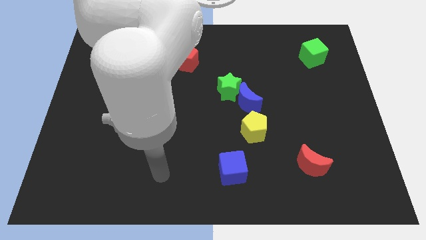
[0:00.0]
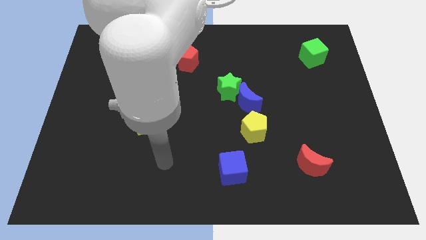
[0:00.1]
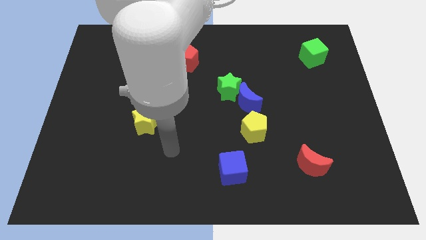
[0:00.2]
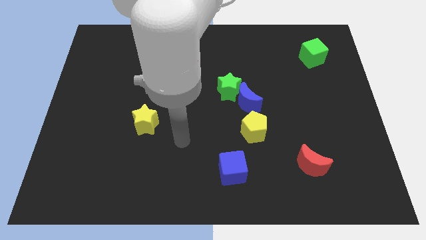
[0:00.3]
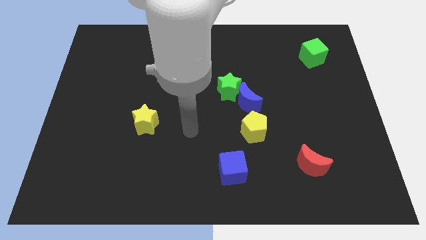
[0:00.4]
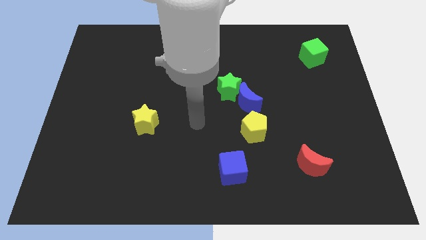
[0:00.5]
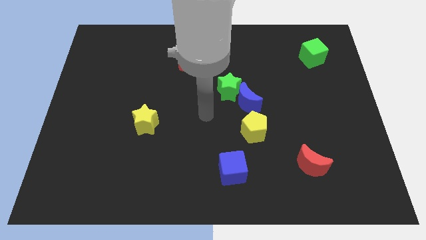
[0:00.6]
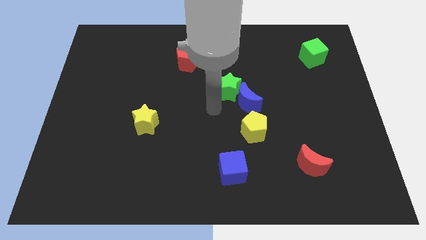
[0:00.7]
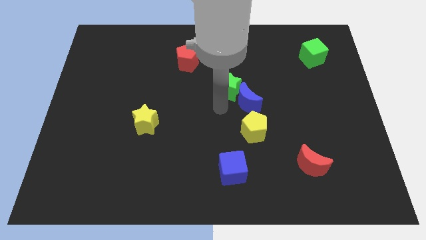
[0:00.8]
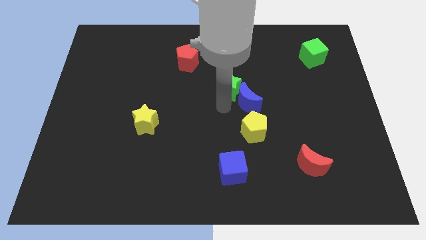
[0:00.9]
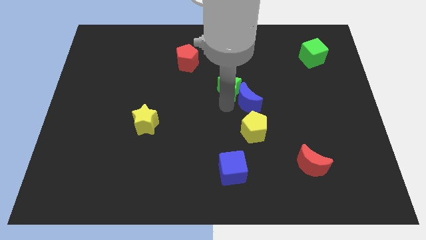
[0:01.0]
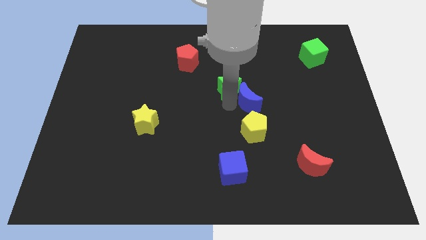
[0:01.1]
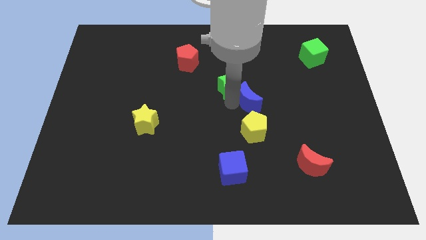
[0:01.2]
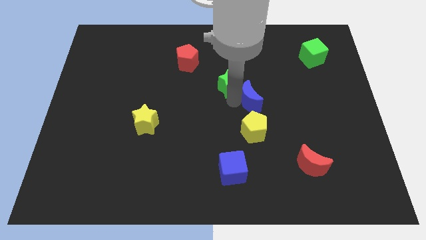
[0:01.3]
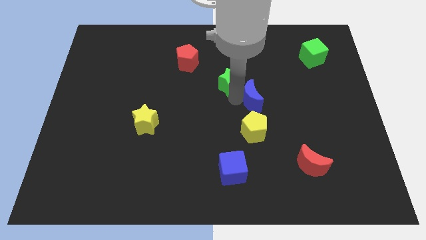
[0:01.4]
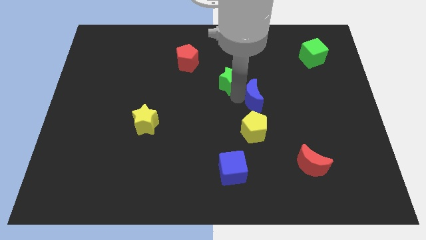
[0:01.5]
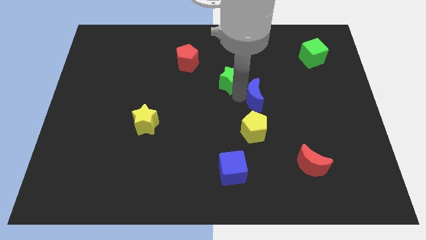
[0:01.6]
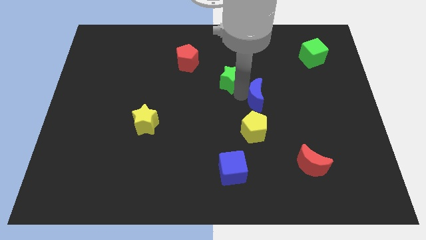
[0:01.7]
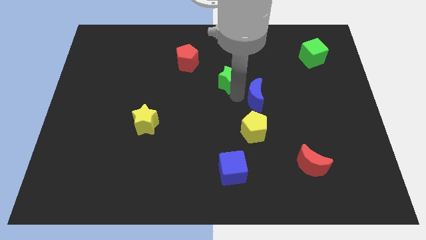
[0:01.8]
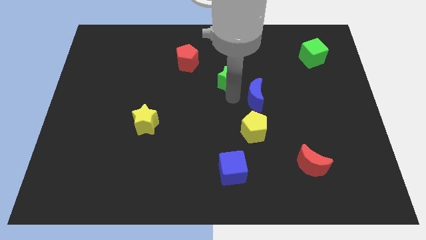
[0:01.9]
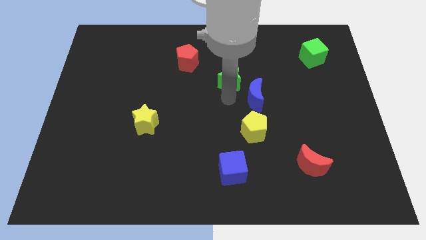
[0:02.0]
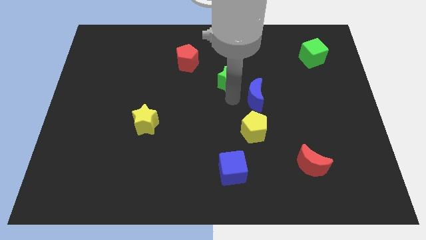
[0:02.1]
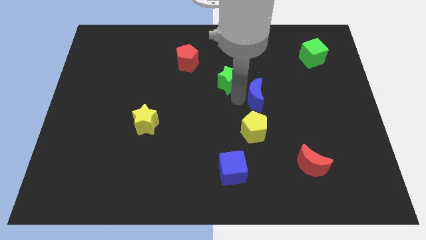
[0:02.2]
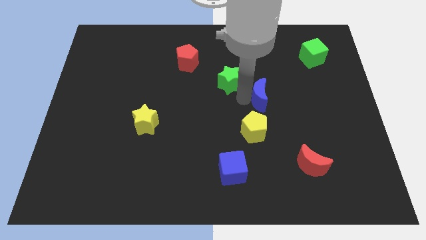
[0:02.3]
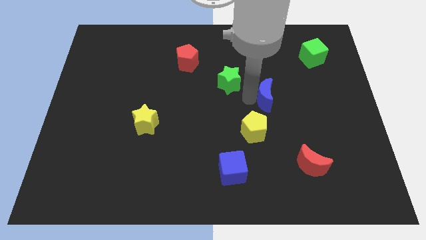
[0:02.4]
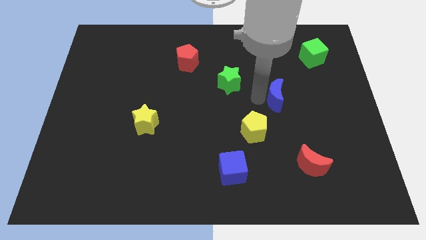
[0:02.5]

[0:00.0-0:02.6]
slide the blue moon right slightly

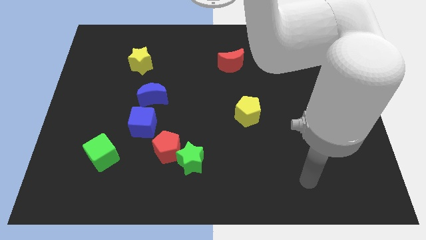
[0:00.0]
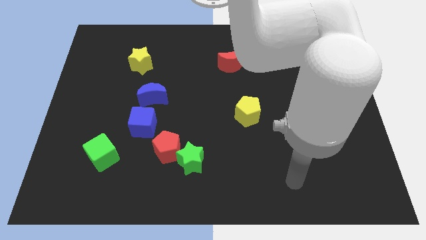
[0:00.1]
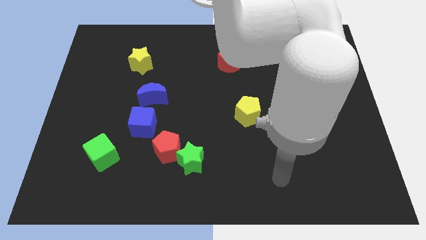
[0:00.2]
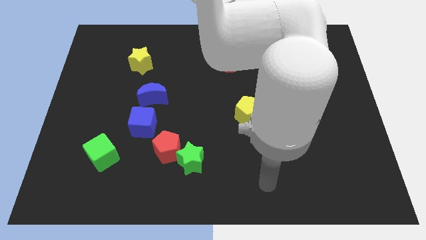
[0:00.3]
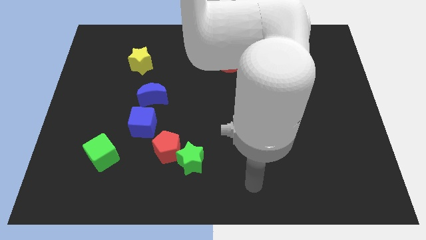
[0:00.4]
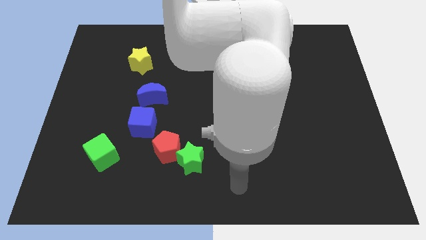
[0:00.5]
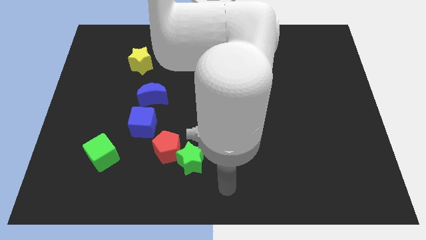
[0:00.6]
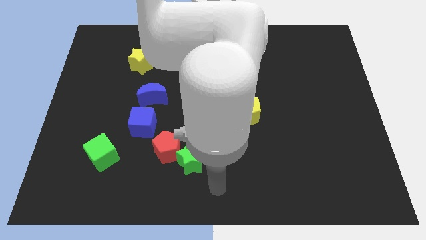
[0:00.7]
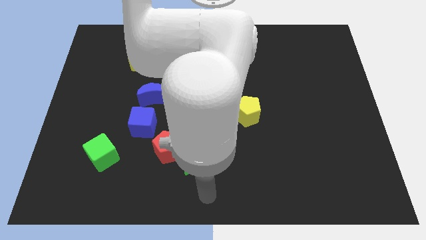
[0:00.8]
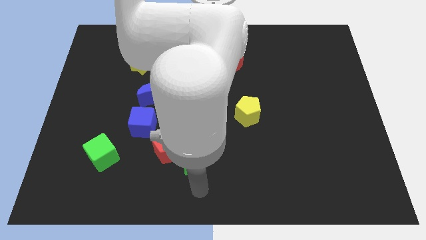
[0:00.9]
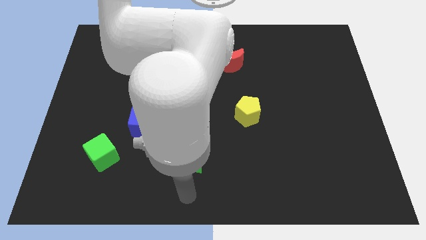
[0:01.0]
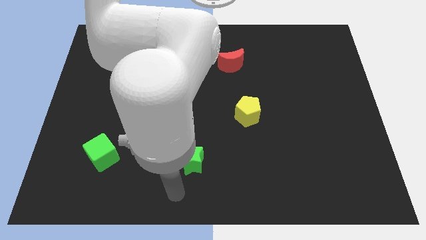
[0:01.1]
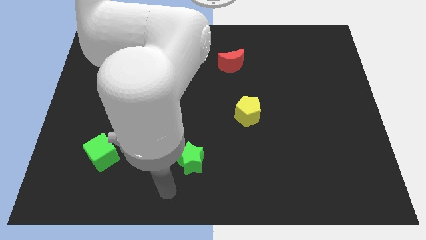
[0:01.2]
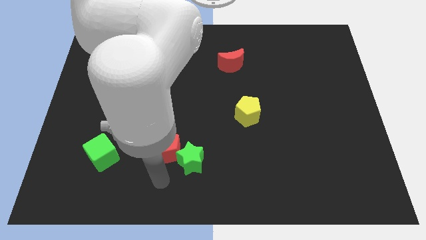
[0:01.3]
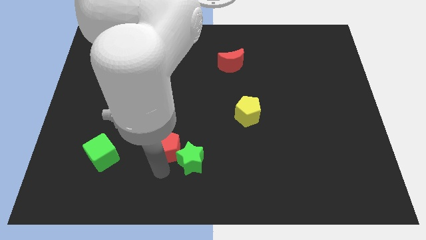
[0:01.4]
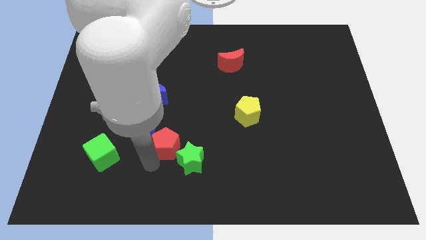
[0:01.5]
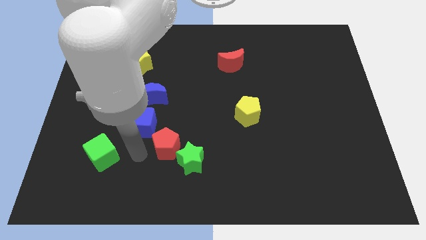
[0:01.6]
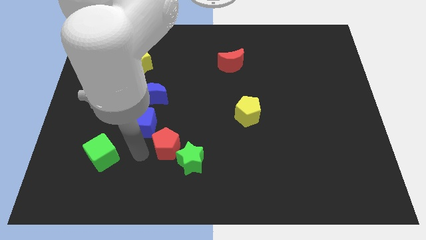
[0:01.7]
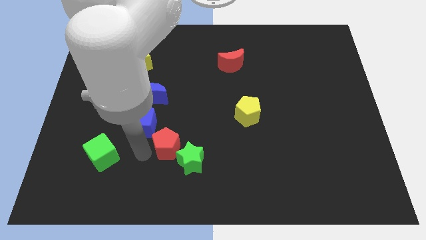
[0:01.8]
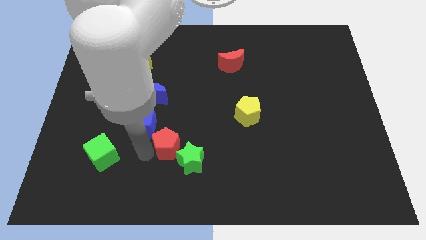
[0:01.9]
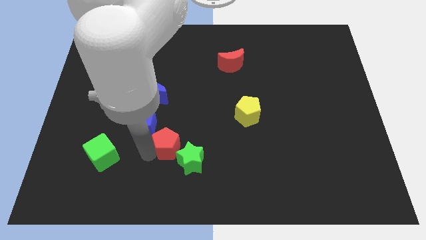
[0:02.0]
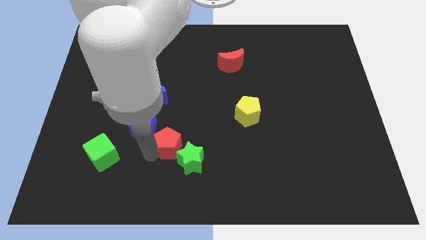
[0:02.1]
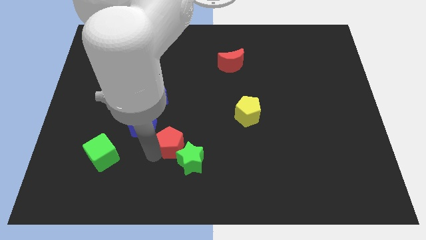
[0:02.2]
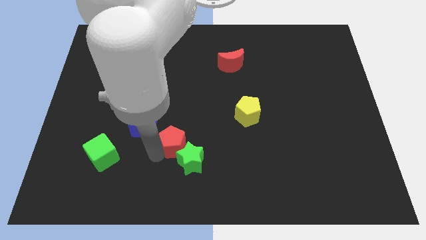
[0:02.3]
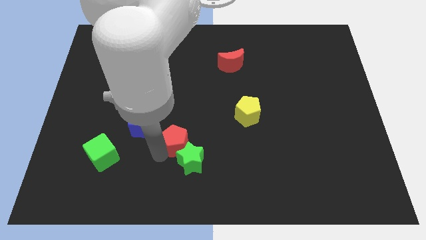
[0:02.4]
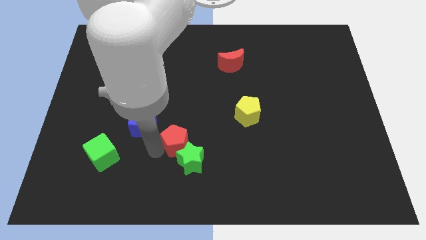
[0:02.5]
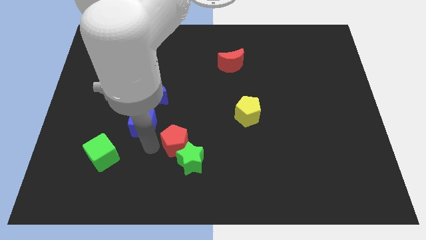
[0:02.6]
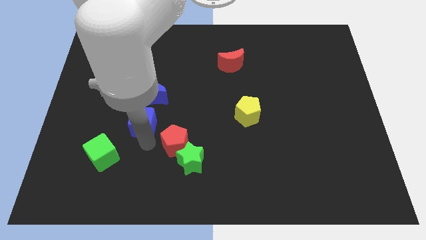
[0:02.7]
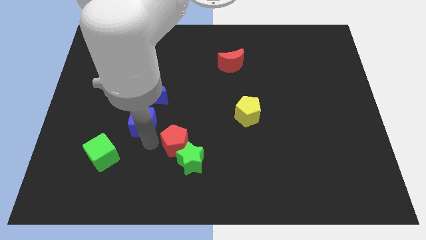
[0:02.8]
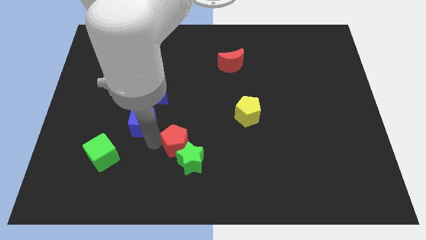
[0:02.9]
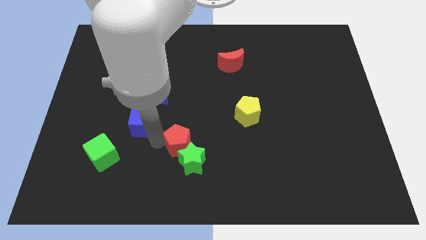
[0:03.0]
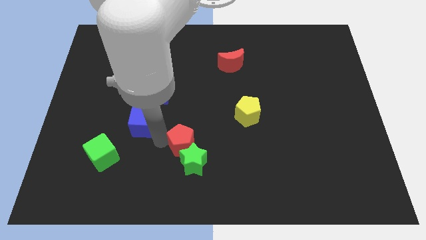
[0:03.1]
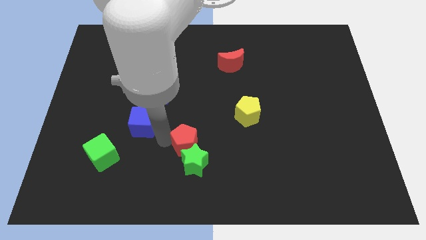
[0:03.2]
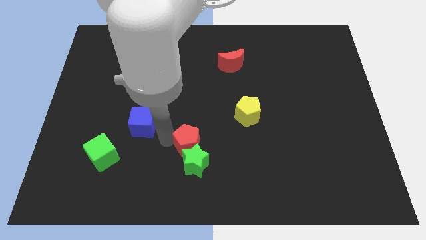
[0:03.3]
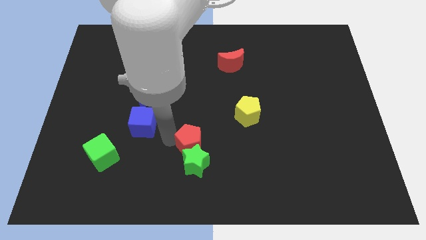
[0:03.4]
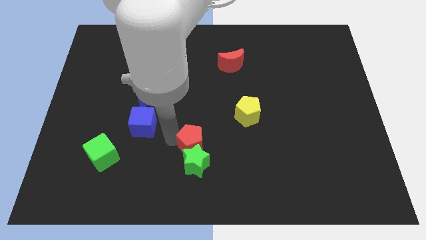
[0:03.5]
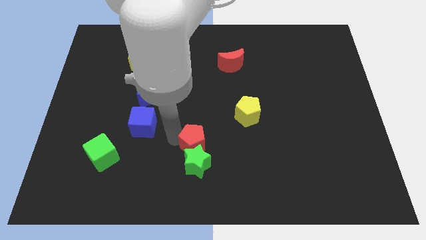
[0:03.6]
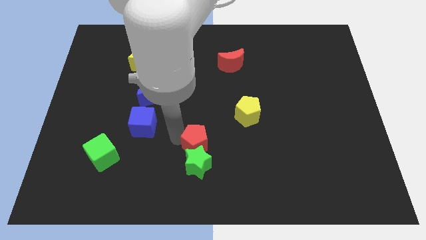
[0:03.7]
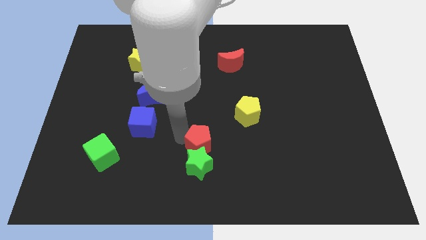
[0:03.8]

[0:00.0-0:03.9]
push the red pentagon to the right a little bit

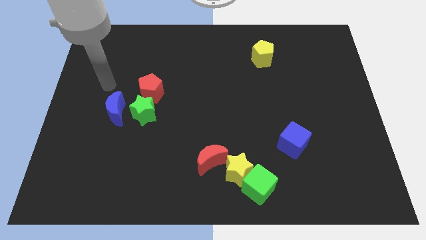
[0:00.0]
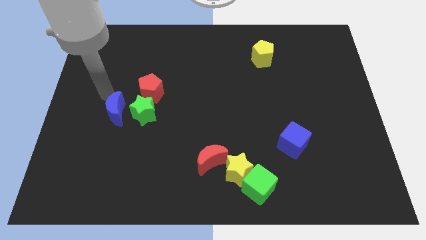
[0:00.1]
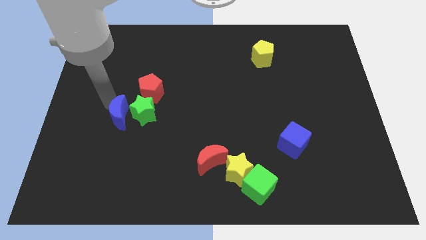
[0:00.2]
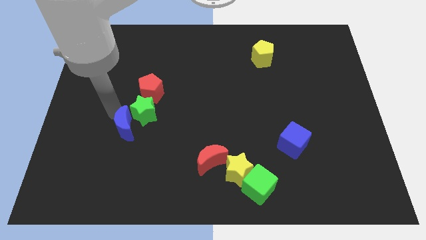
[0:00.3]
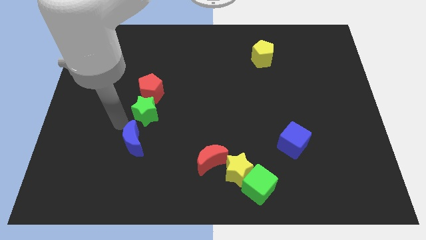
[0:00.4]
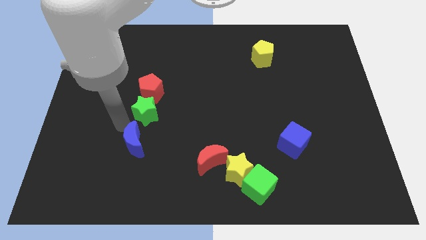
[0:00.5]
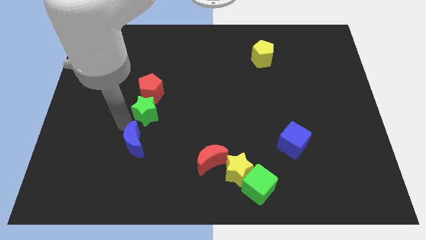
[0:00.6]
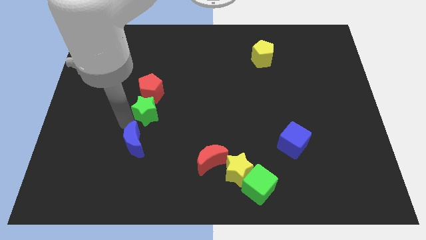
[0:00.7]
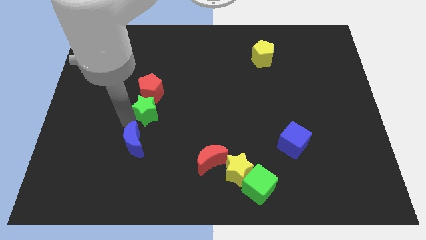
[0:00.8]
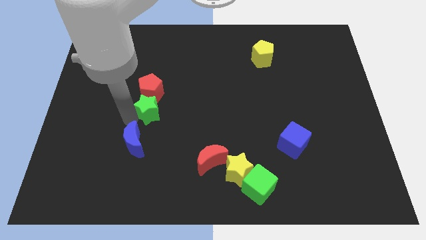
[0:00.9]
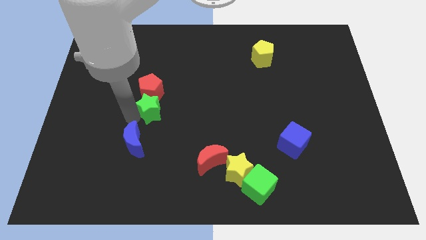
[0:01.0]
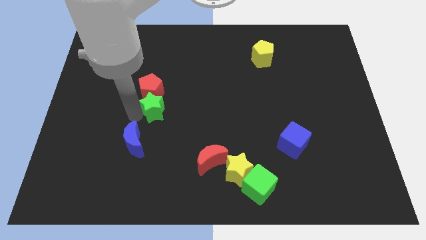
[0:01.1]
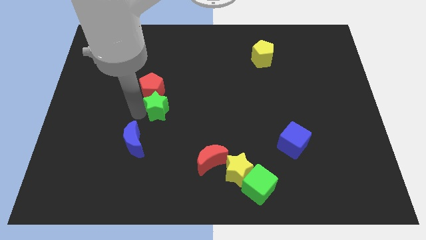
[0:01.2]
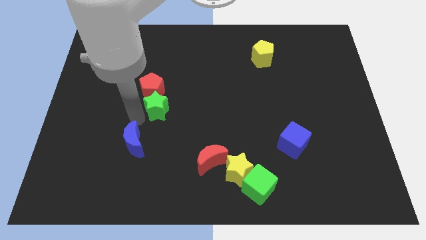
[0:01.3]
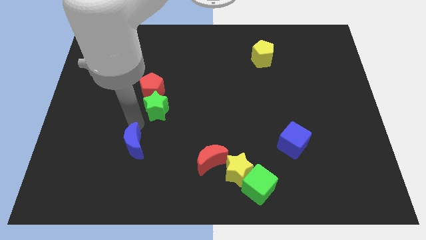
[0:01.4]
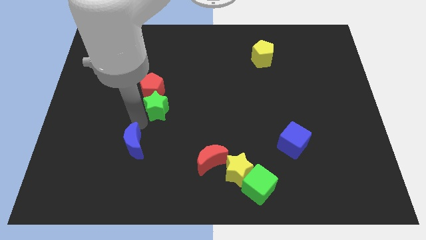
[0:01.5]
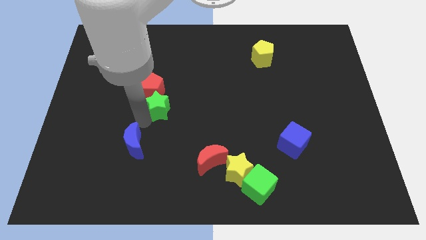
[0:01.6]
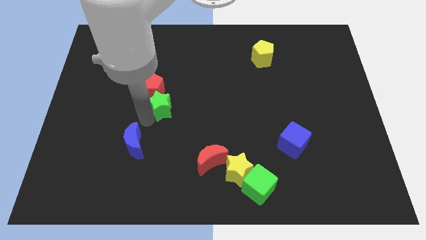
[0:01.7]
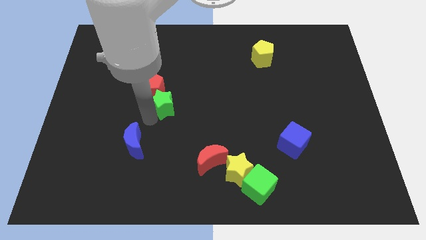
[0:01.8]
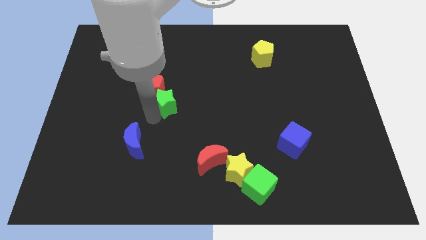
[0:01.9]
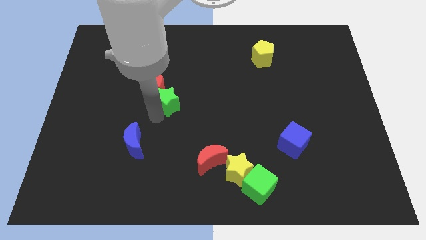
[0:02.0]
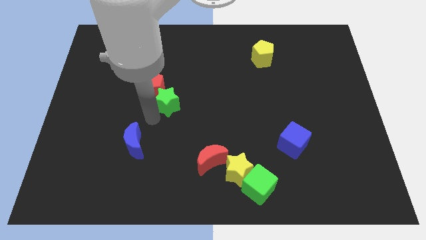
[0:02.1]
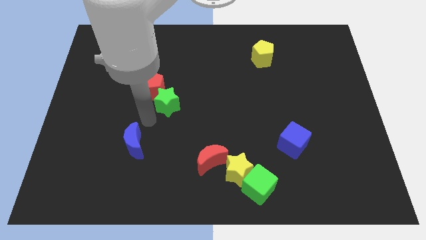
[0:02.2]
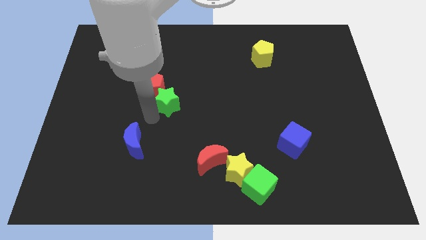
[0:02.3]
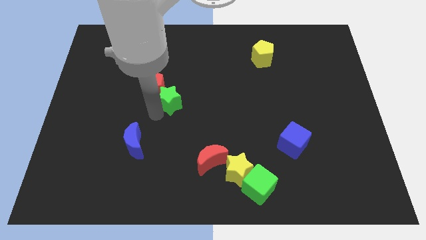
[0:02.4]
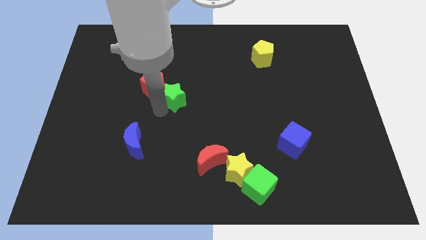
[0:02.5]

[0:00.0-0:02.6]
move the green star a little diagonally upwards and right
